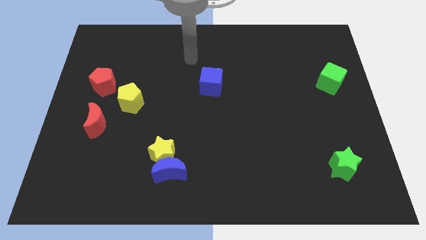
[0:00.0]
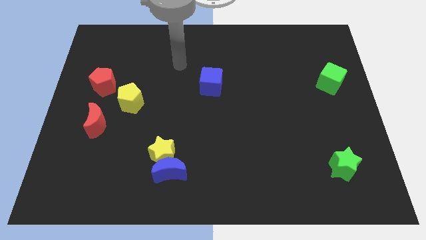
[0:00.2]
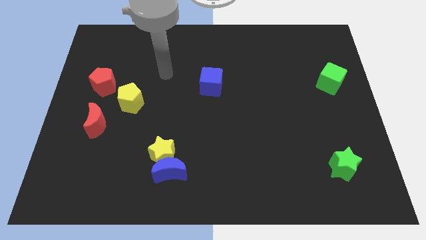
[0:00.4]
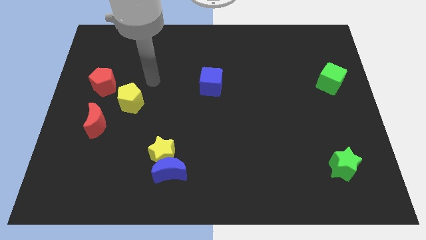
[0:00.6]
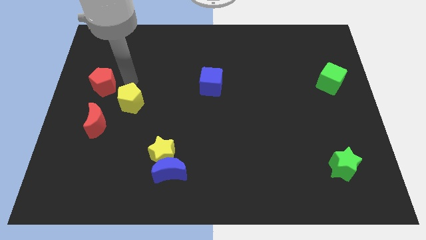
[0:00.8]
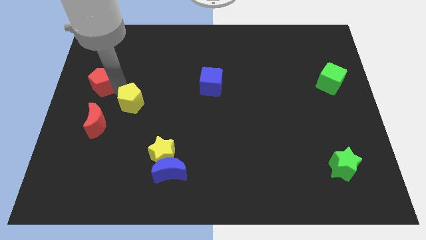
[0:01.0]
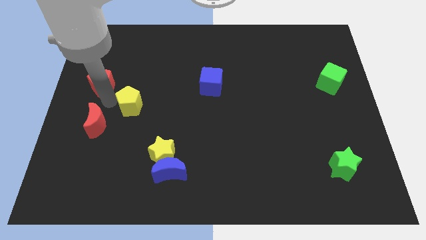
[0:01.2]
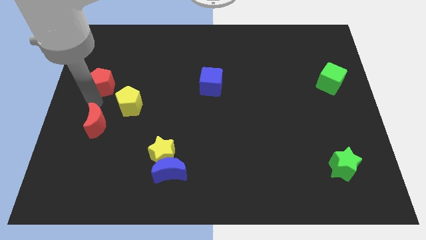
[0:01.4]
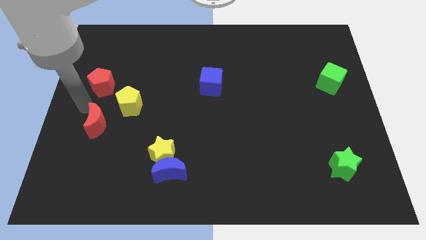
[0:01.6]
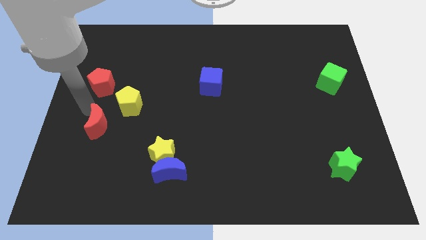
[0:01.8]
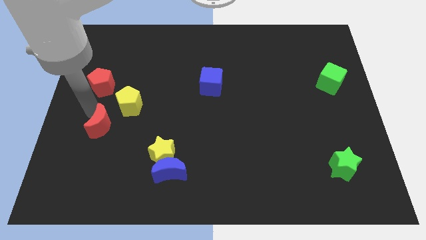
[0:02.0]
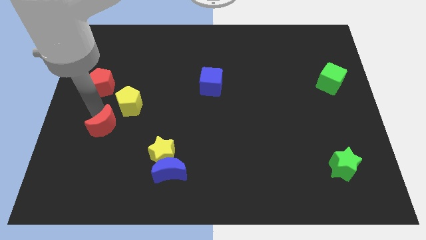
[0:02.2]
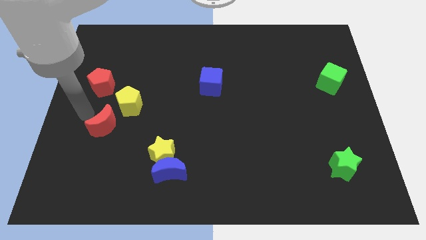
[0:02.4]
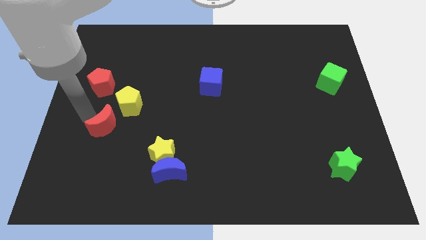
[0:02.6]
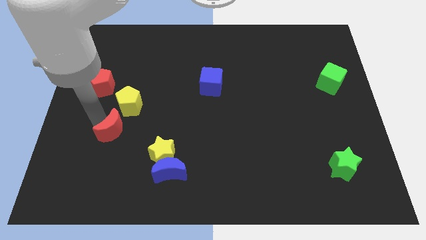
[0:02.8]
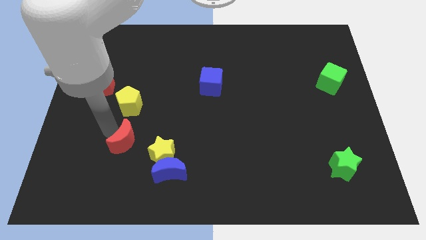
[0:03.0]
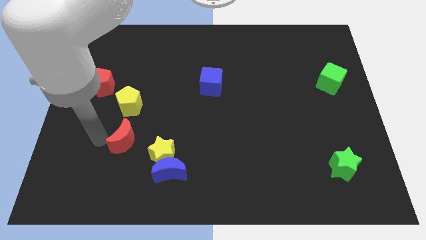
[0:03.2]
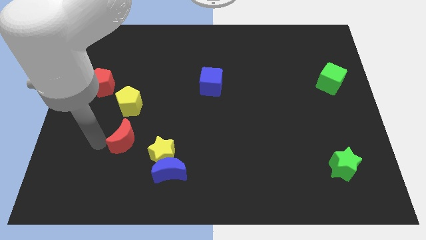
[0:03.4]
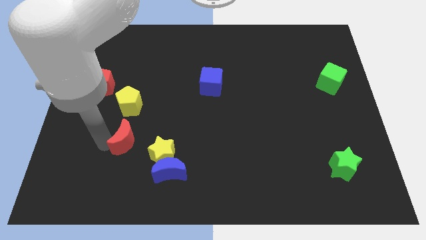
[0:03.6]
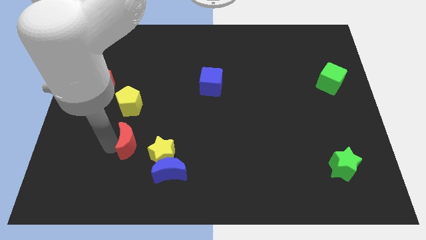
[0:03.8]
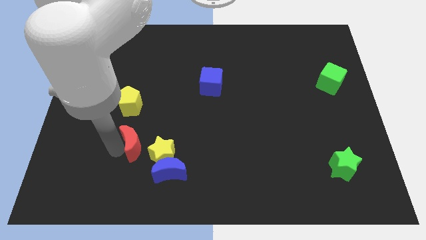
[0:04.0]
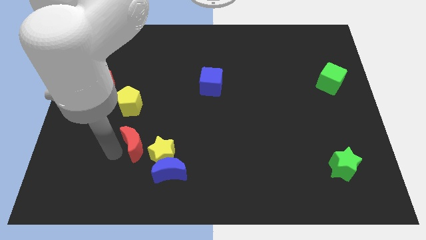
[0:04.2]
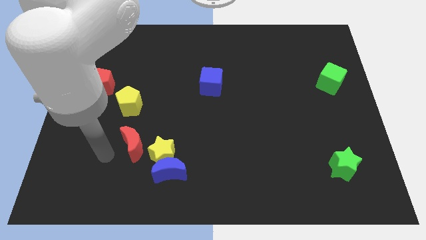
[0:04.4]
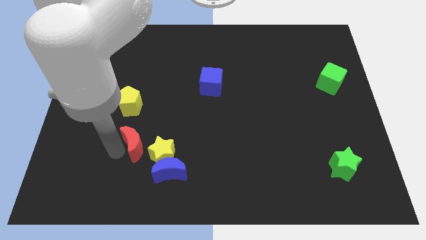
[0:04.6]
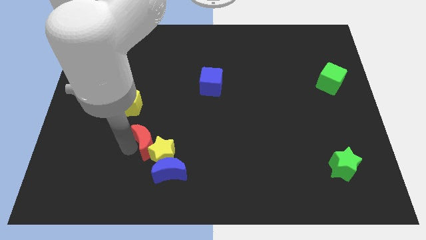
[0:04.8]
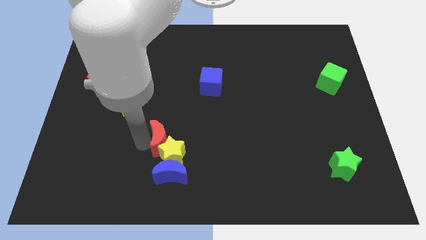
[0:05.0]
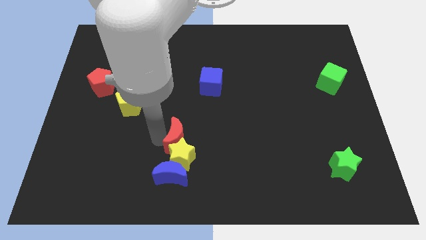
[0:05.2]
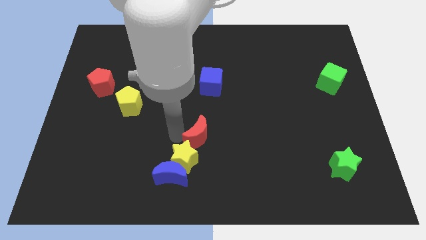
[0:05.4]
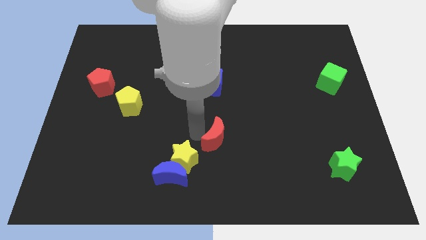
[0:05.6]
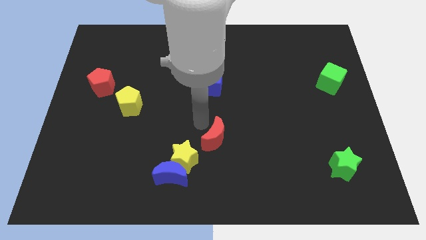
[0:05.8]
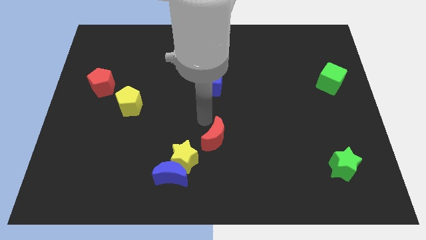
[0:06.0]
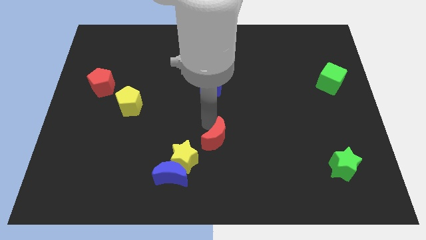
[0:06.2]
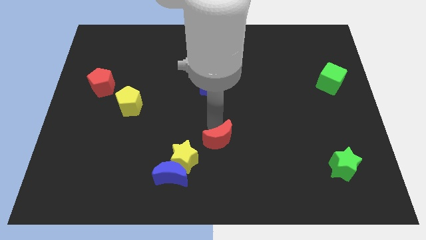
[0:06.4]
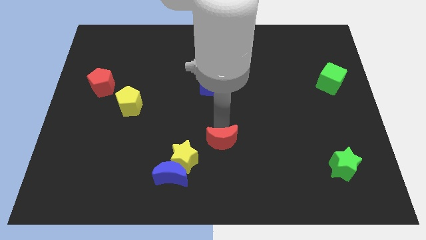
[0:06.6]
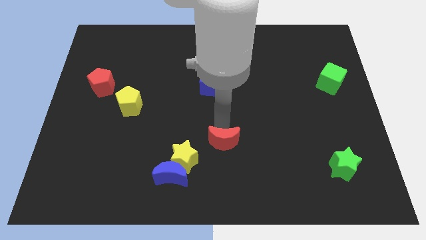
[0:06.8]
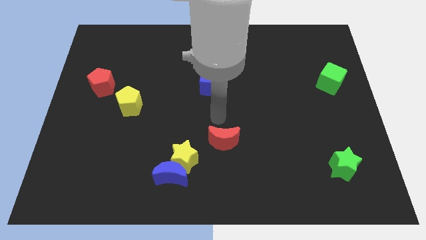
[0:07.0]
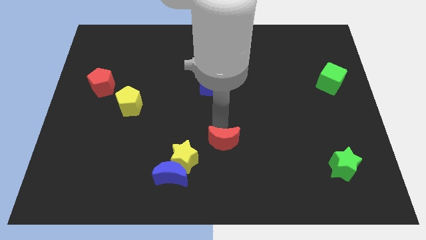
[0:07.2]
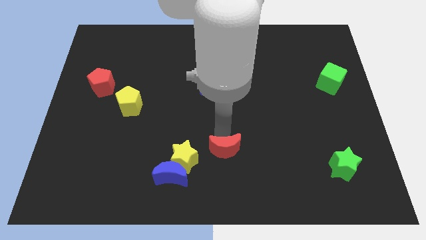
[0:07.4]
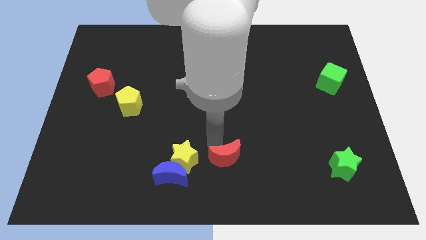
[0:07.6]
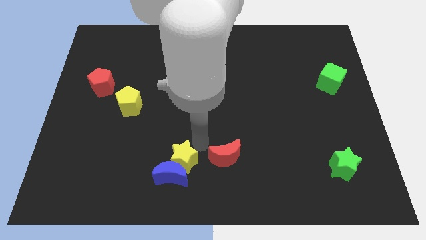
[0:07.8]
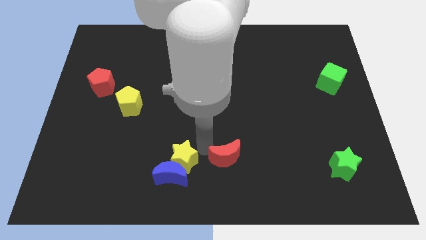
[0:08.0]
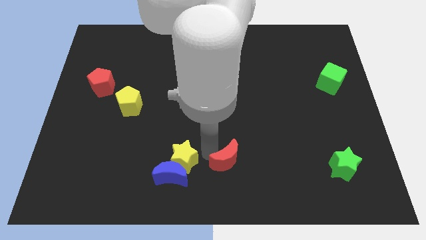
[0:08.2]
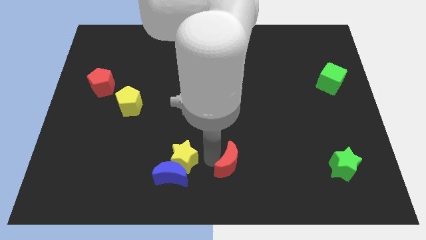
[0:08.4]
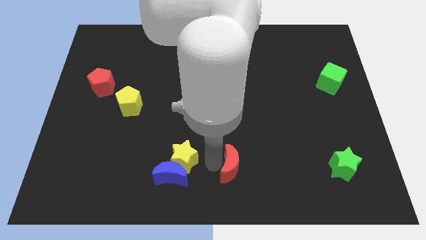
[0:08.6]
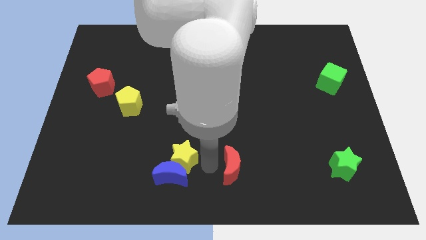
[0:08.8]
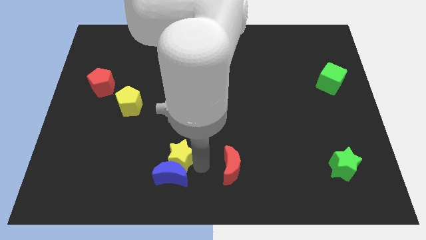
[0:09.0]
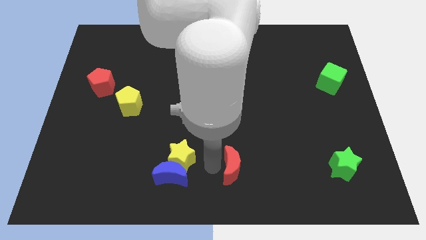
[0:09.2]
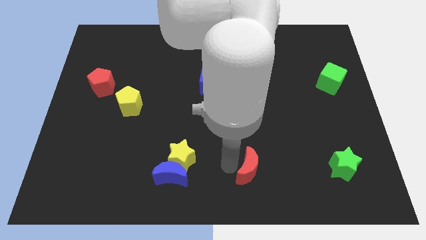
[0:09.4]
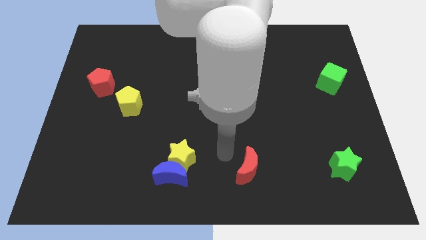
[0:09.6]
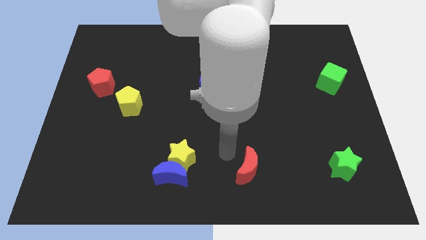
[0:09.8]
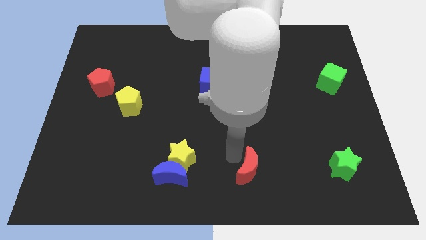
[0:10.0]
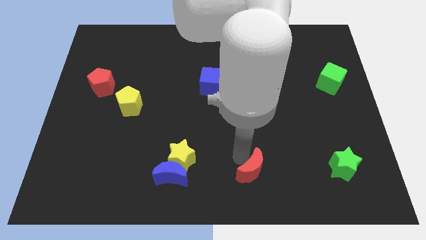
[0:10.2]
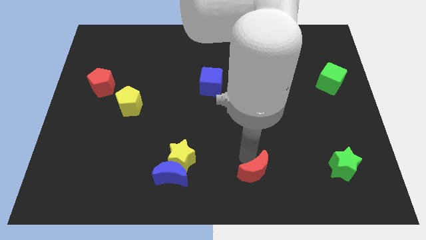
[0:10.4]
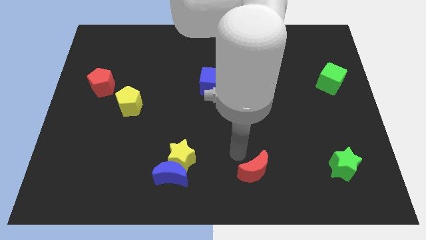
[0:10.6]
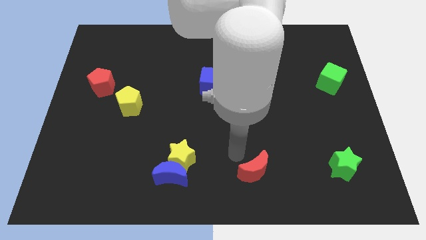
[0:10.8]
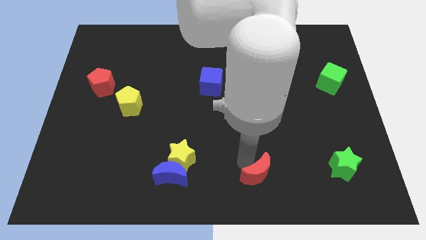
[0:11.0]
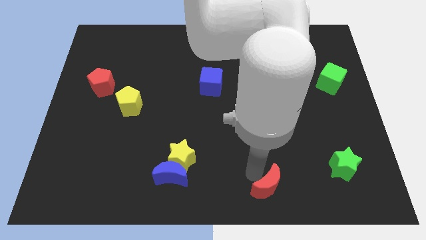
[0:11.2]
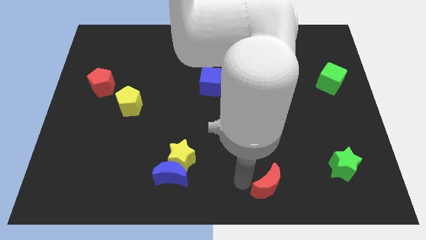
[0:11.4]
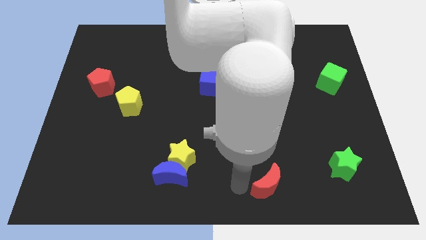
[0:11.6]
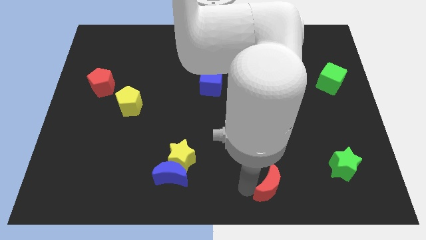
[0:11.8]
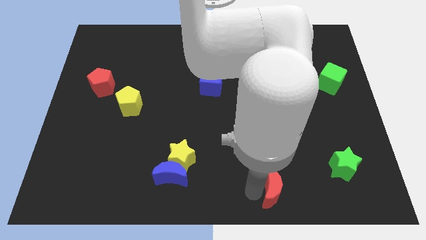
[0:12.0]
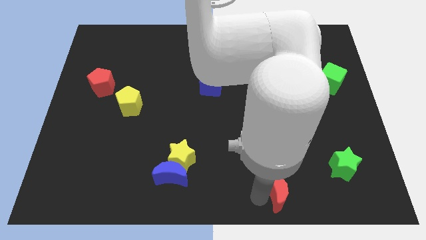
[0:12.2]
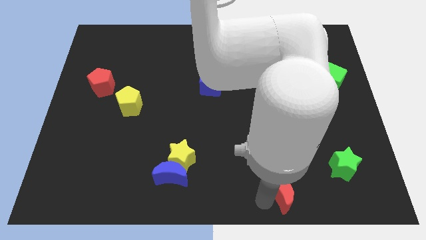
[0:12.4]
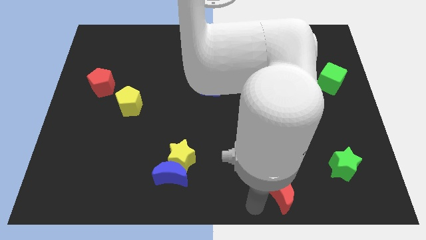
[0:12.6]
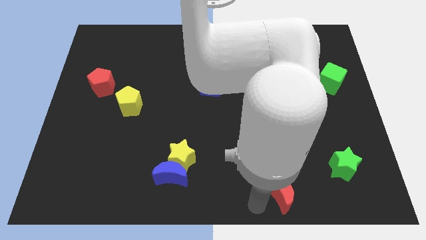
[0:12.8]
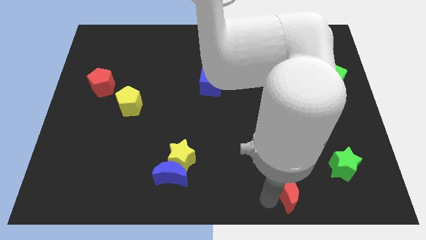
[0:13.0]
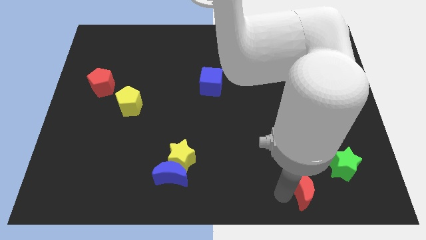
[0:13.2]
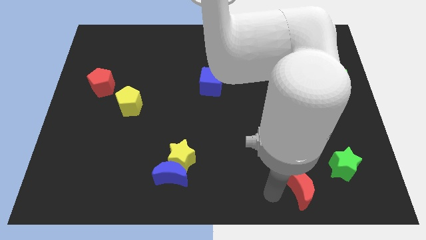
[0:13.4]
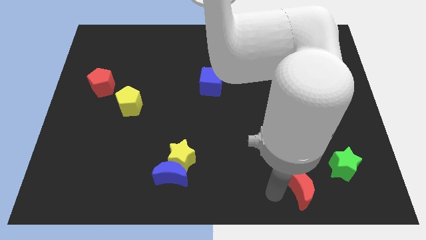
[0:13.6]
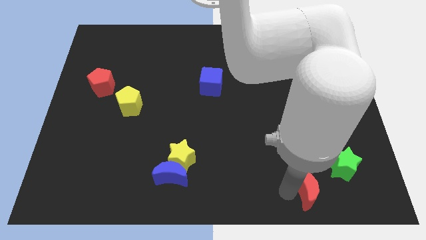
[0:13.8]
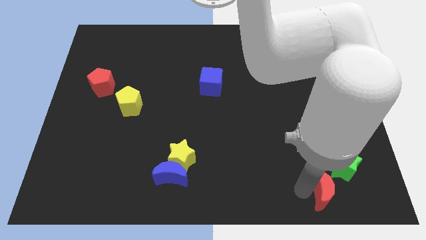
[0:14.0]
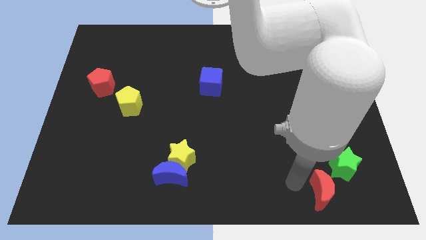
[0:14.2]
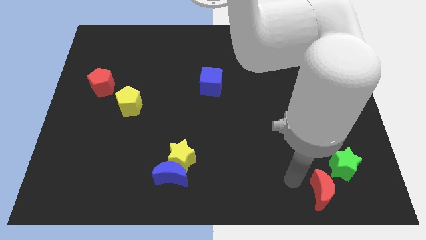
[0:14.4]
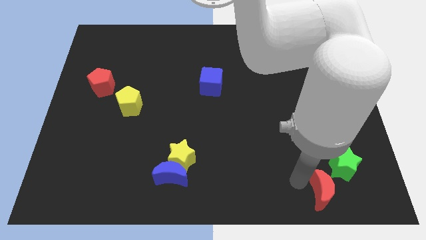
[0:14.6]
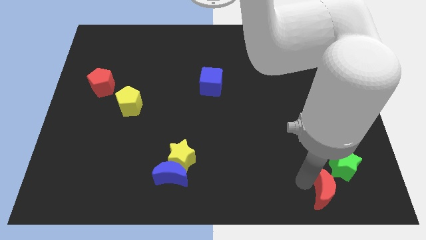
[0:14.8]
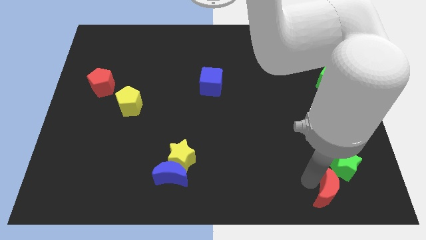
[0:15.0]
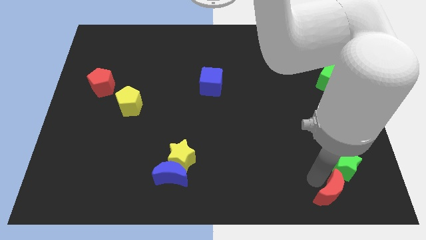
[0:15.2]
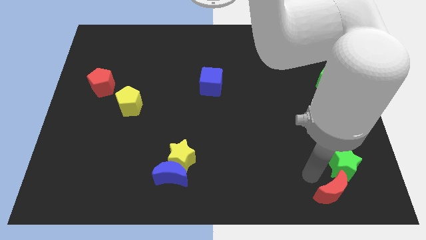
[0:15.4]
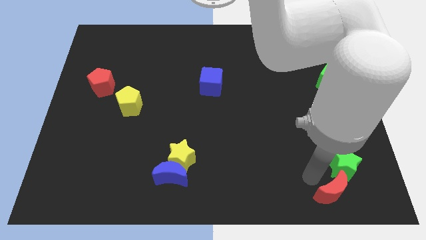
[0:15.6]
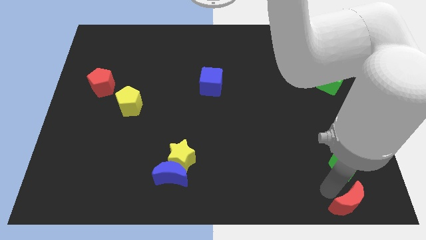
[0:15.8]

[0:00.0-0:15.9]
move the red moon to the bottom right

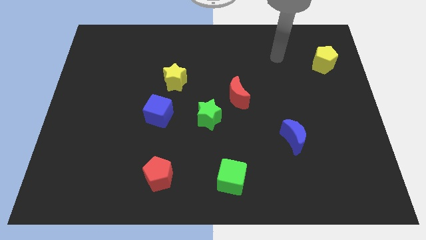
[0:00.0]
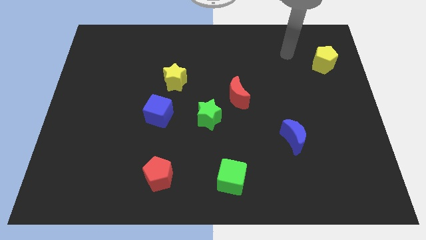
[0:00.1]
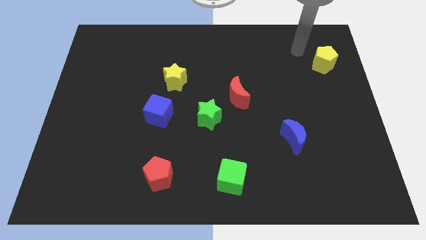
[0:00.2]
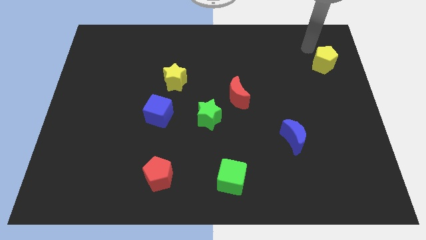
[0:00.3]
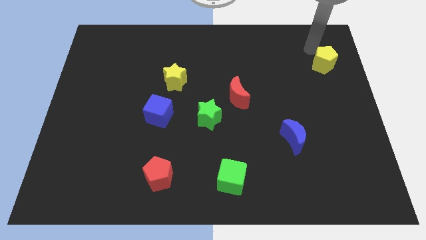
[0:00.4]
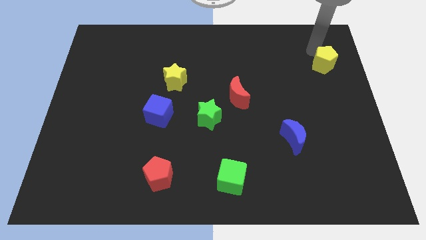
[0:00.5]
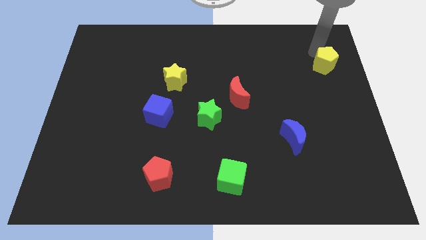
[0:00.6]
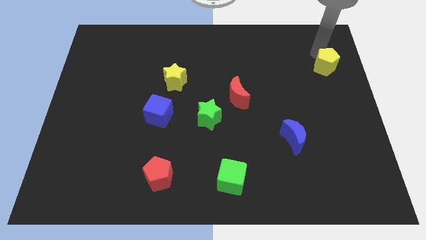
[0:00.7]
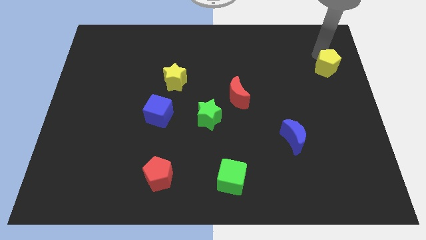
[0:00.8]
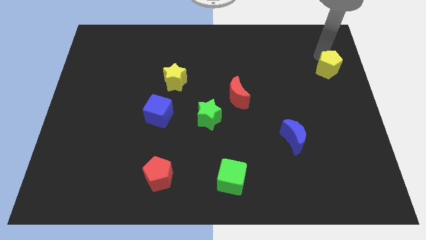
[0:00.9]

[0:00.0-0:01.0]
slide the yellow pentagon to the center right
